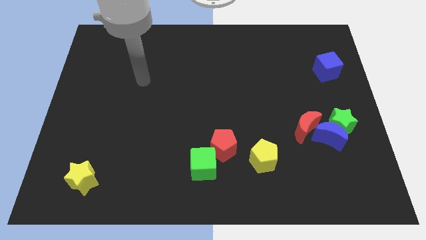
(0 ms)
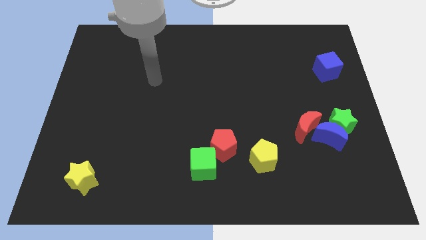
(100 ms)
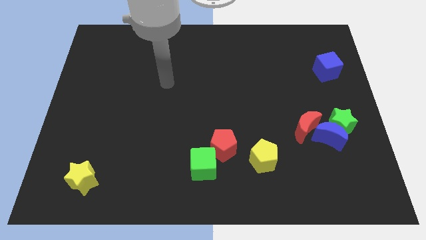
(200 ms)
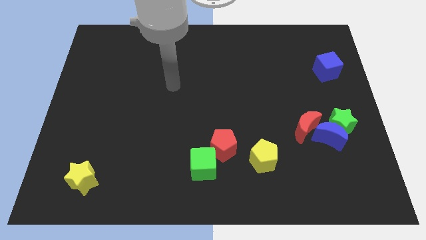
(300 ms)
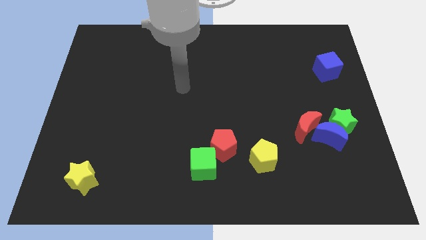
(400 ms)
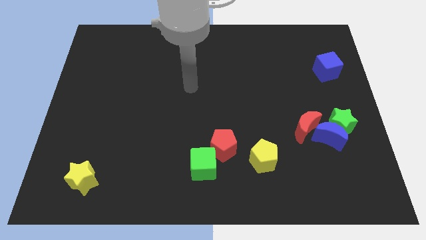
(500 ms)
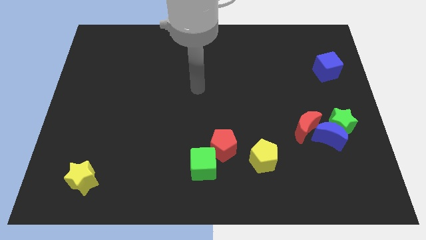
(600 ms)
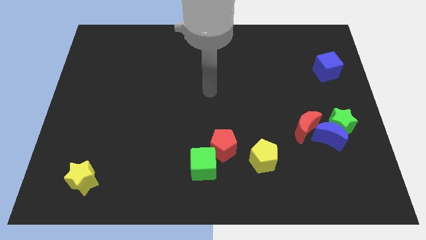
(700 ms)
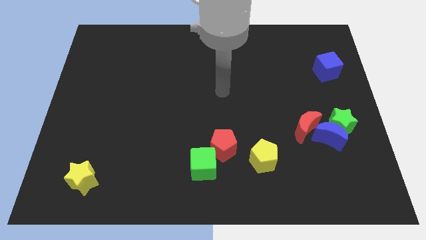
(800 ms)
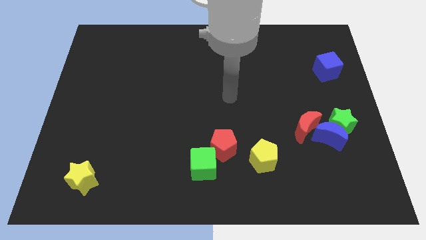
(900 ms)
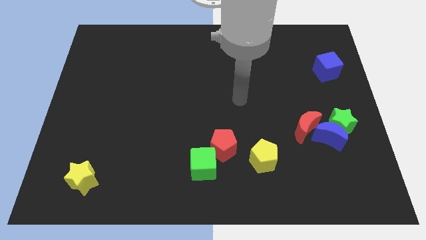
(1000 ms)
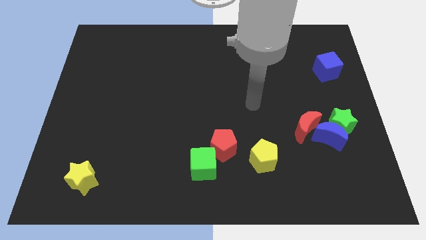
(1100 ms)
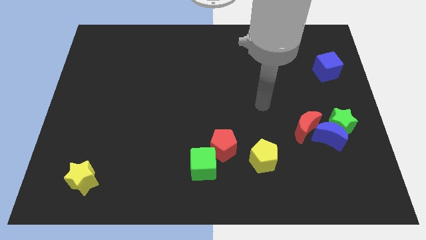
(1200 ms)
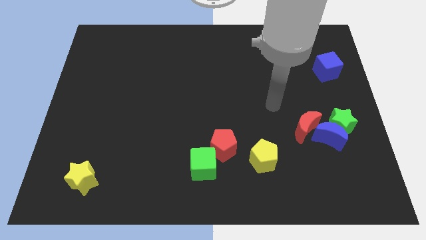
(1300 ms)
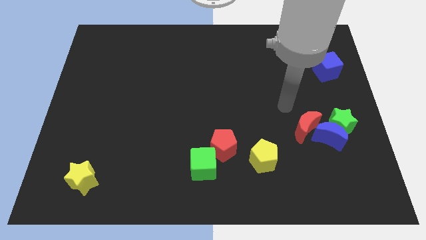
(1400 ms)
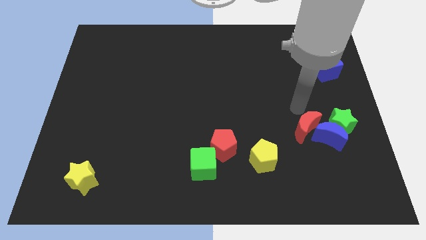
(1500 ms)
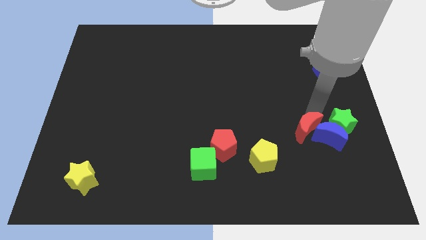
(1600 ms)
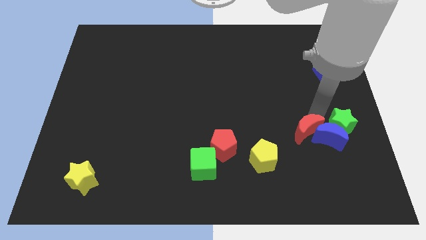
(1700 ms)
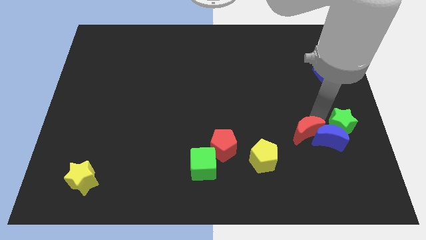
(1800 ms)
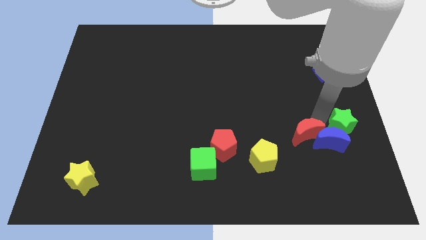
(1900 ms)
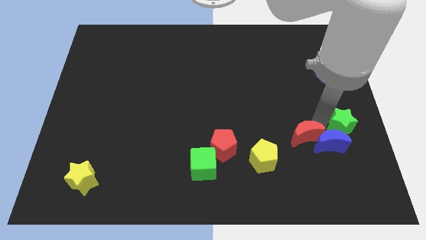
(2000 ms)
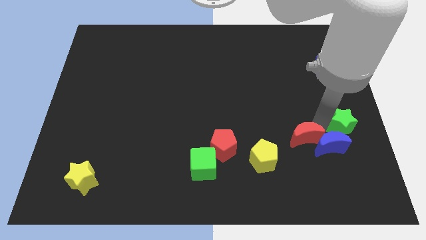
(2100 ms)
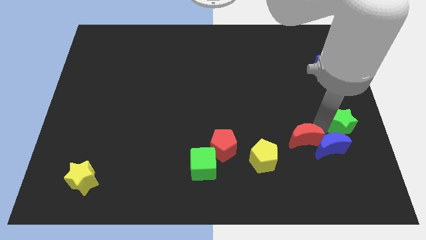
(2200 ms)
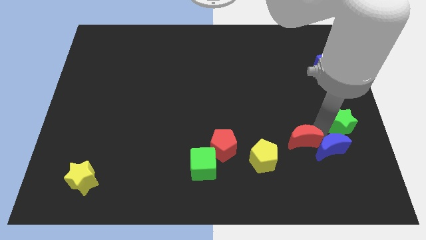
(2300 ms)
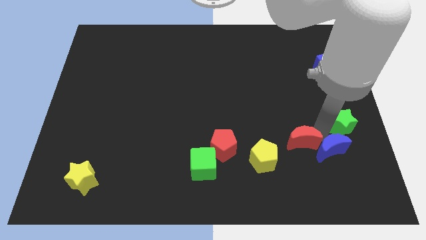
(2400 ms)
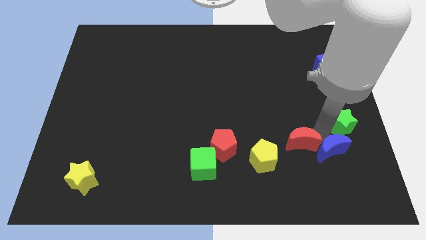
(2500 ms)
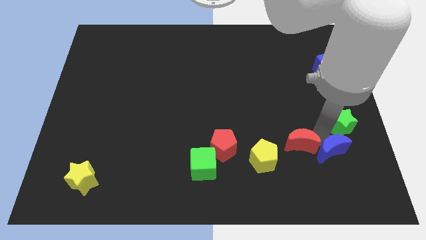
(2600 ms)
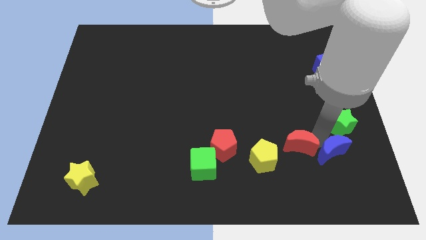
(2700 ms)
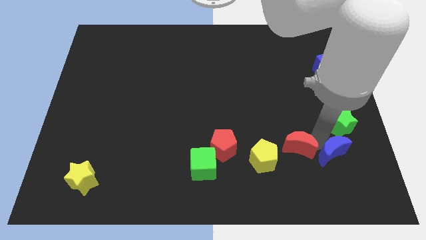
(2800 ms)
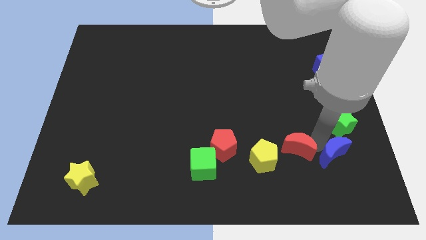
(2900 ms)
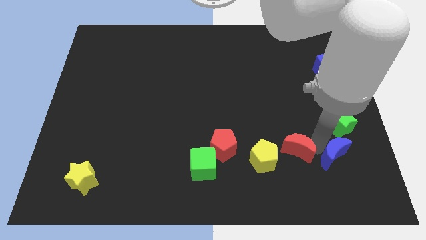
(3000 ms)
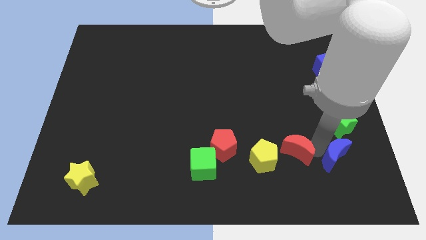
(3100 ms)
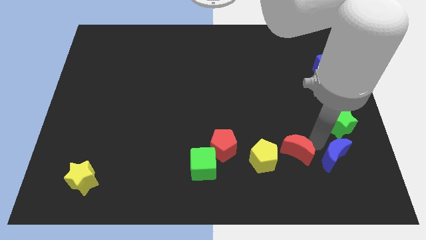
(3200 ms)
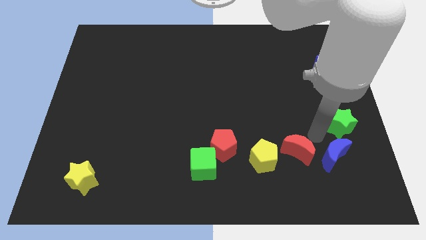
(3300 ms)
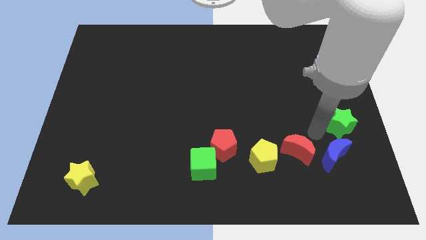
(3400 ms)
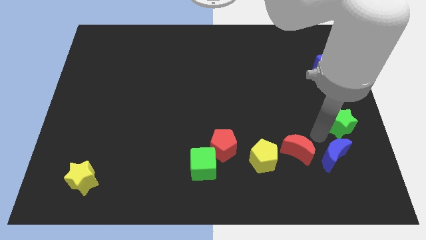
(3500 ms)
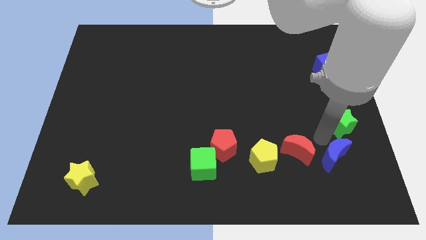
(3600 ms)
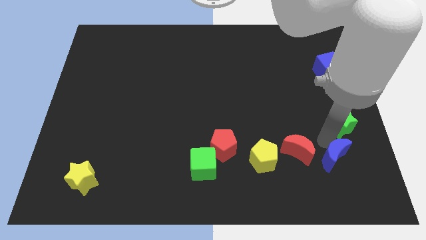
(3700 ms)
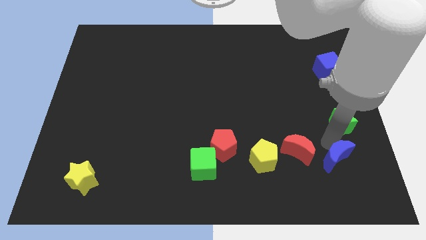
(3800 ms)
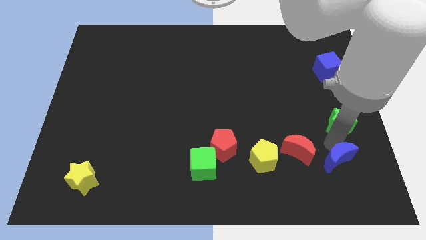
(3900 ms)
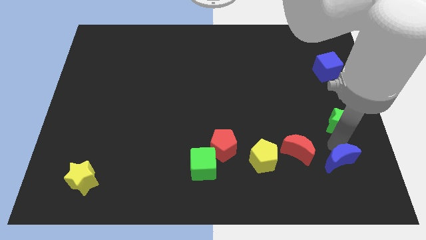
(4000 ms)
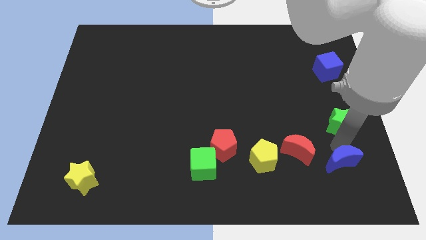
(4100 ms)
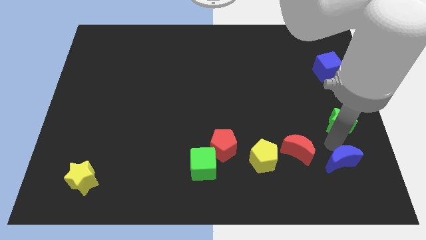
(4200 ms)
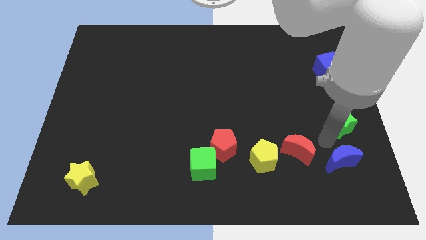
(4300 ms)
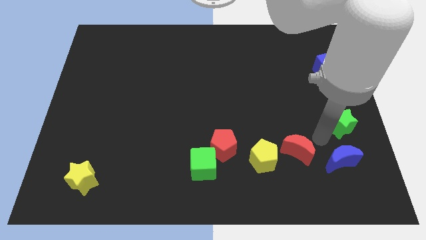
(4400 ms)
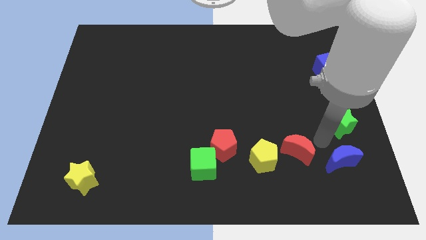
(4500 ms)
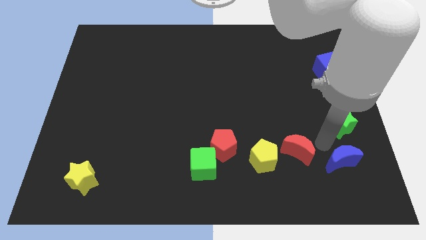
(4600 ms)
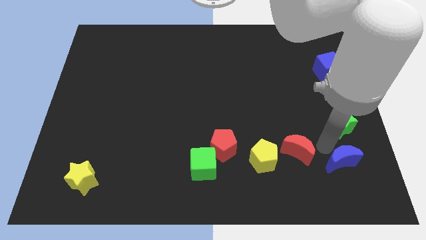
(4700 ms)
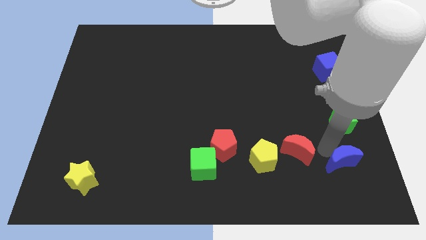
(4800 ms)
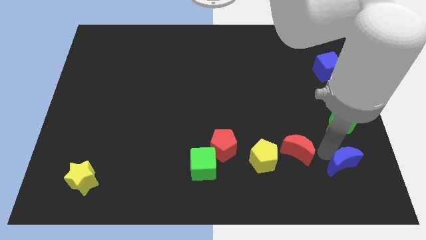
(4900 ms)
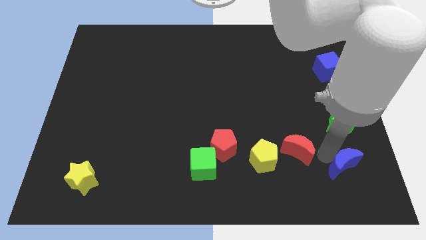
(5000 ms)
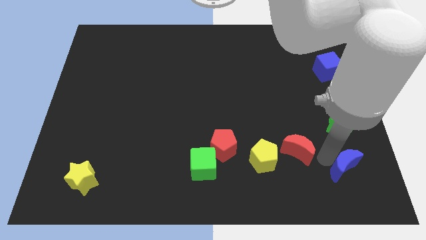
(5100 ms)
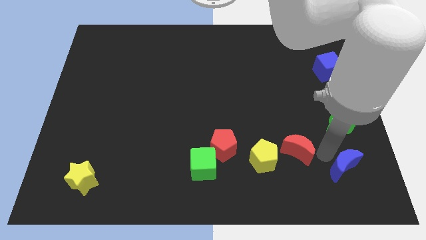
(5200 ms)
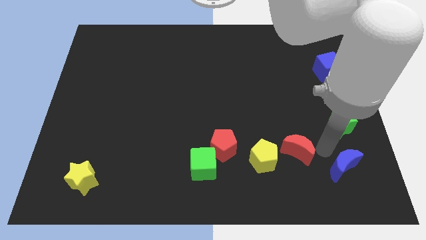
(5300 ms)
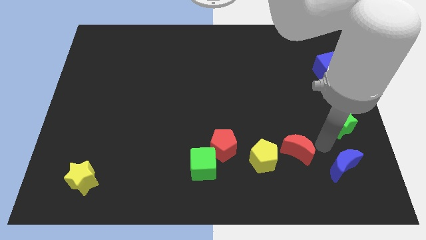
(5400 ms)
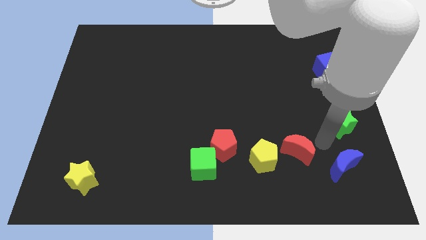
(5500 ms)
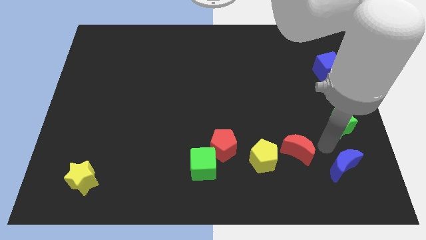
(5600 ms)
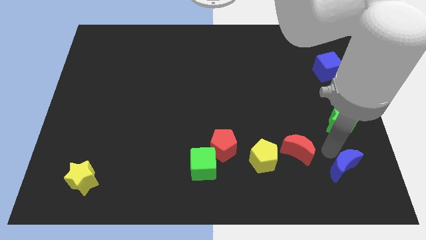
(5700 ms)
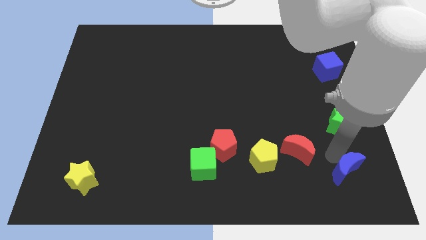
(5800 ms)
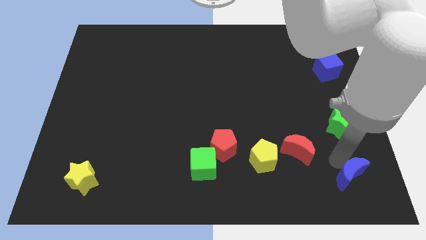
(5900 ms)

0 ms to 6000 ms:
move the blue moon away from the green star and red moon

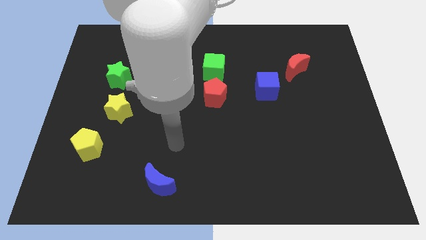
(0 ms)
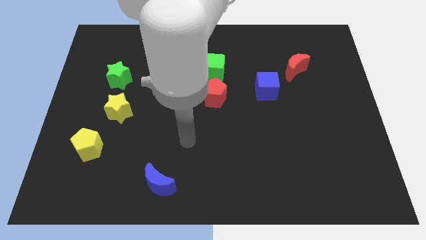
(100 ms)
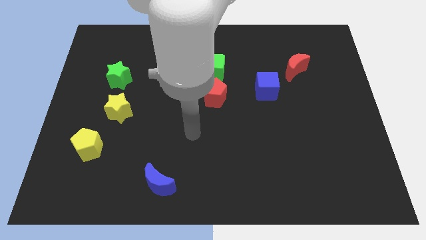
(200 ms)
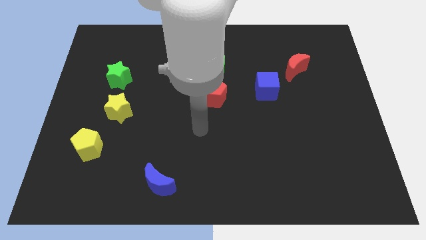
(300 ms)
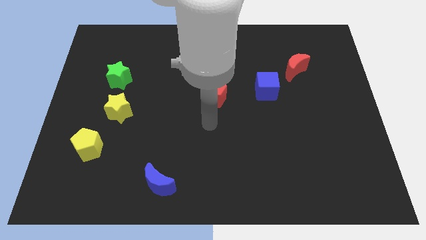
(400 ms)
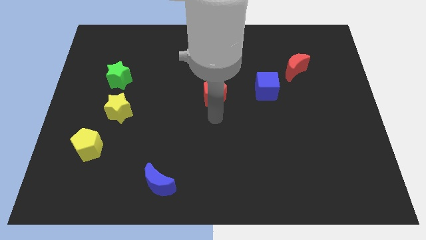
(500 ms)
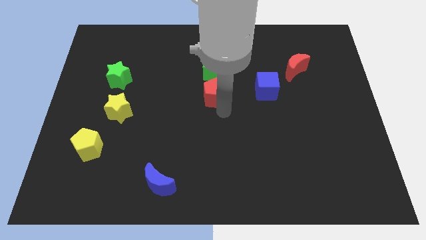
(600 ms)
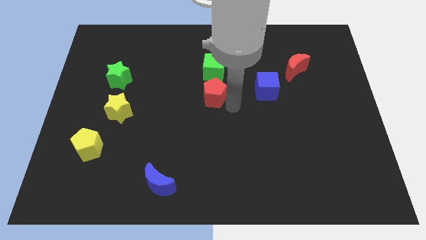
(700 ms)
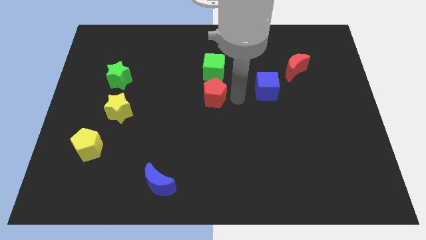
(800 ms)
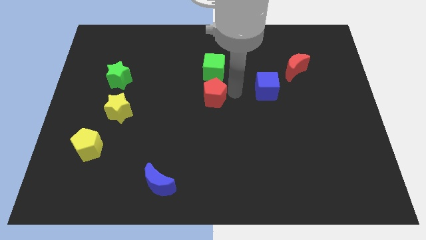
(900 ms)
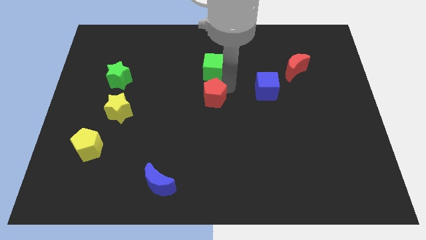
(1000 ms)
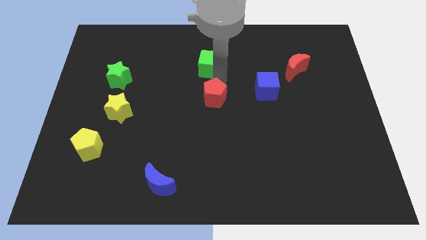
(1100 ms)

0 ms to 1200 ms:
pull the red pentagon apart from the green cube

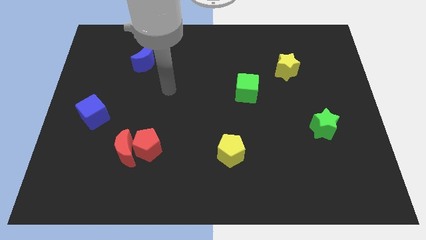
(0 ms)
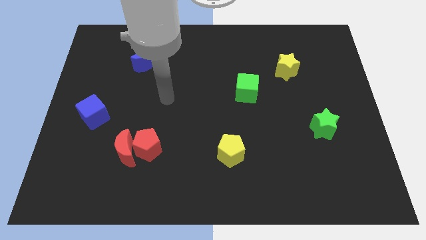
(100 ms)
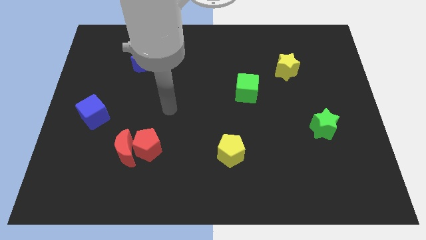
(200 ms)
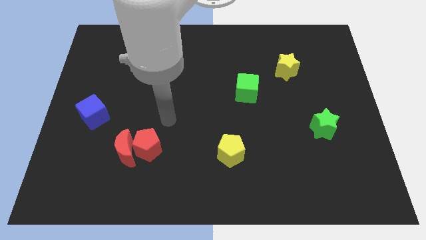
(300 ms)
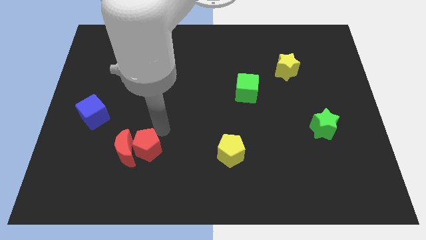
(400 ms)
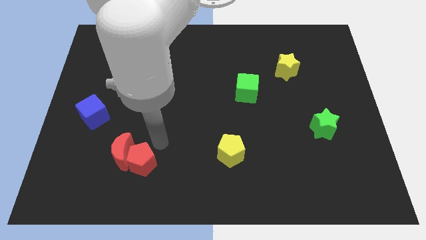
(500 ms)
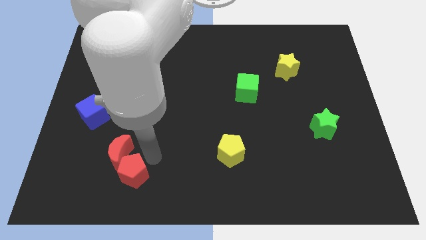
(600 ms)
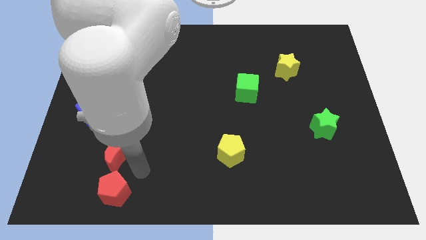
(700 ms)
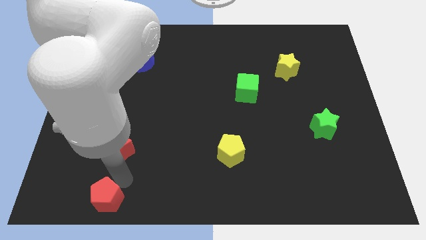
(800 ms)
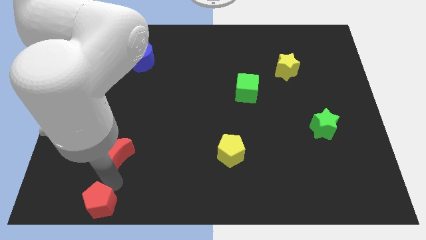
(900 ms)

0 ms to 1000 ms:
pull the red moon apart from the red pentagon

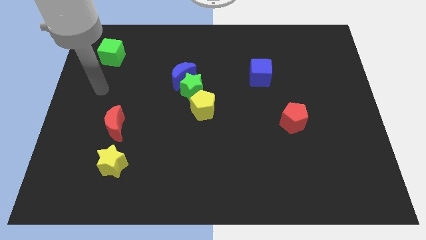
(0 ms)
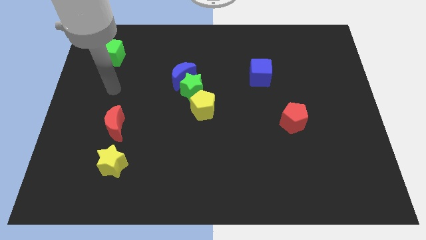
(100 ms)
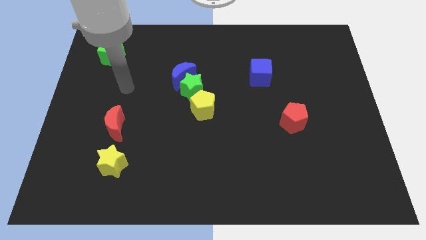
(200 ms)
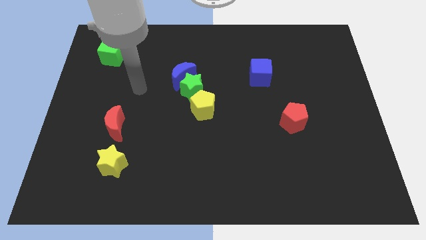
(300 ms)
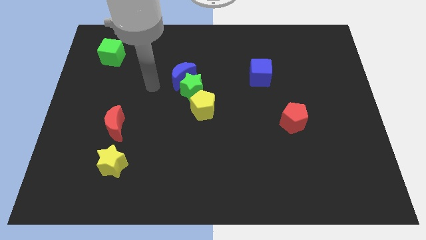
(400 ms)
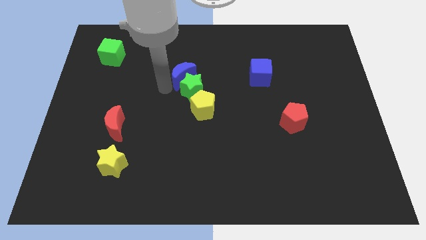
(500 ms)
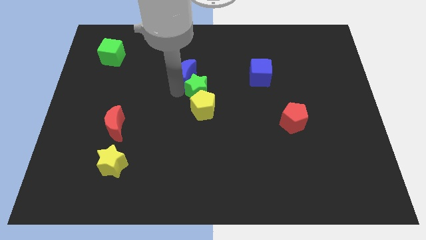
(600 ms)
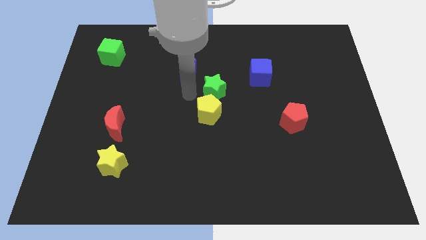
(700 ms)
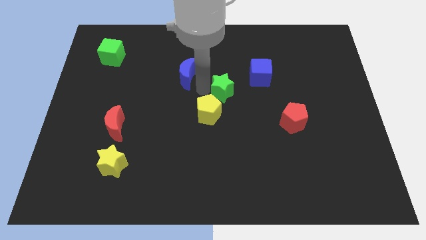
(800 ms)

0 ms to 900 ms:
pull the blue moon apart from the green star

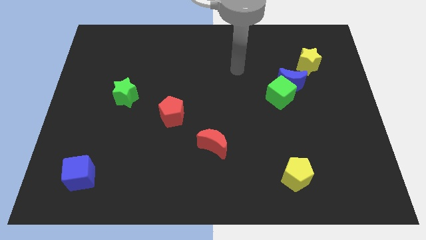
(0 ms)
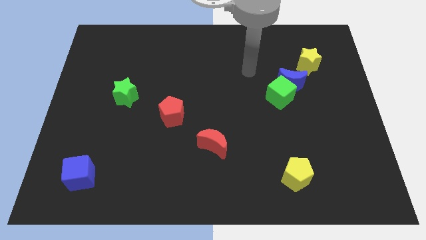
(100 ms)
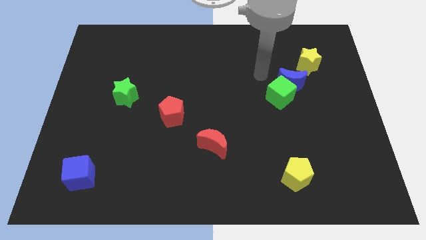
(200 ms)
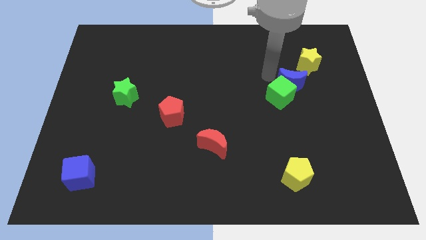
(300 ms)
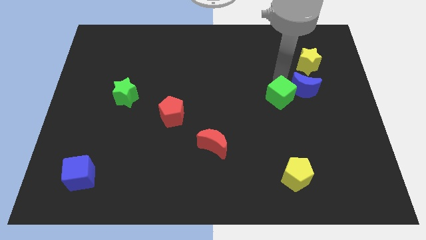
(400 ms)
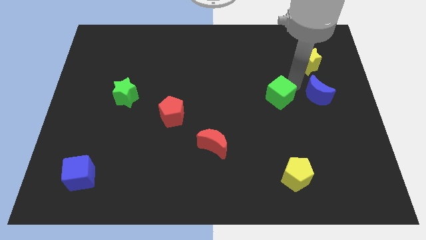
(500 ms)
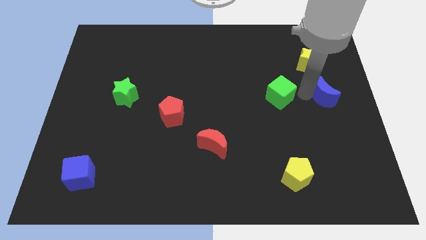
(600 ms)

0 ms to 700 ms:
separate the green cube from the blue moon
